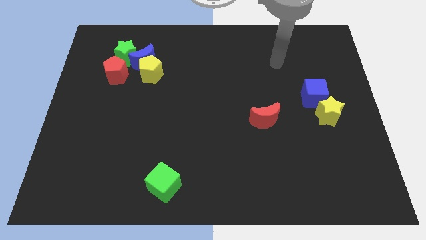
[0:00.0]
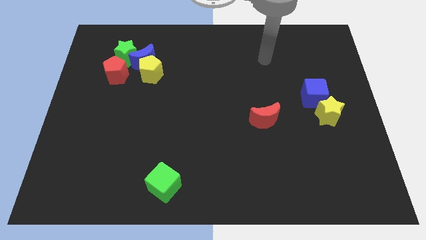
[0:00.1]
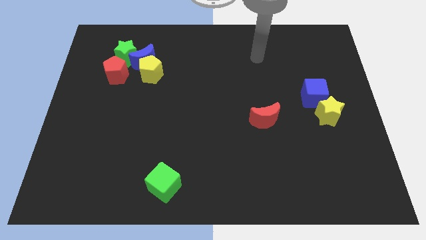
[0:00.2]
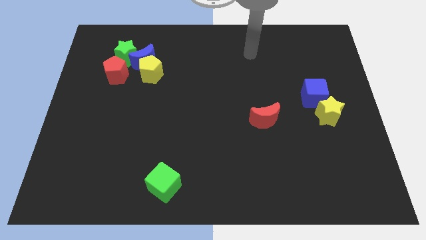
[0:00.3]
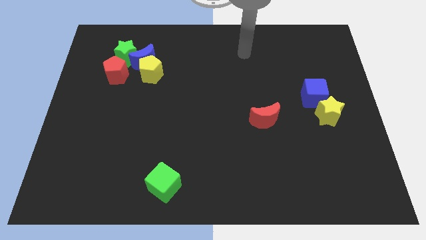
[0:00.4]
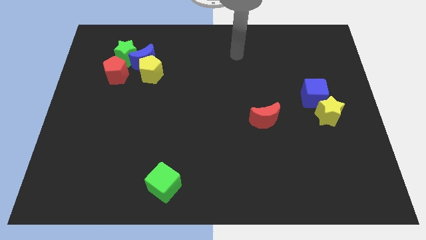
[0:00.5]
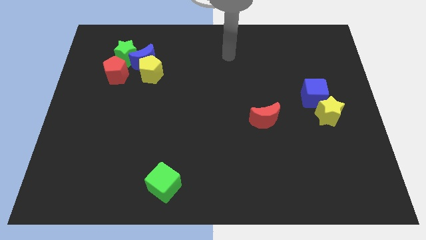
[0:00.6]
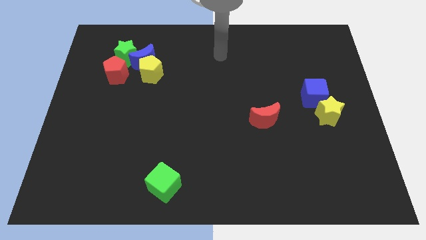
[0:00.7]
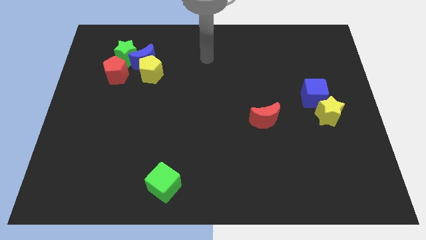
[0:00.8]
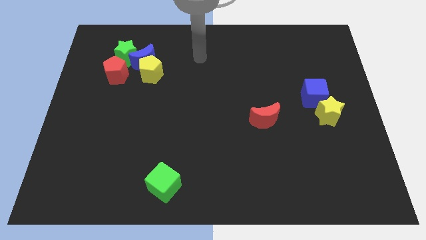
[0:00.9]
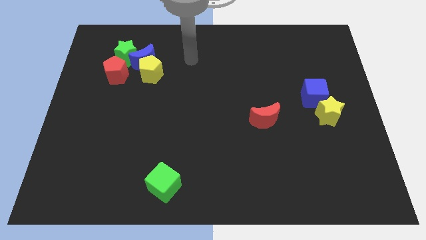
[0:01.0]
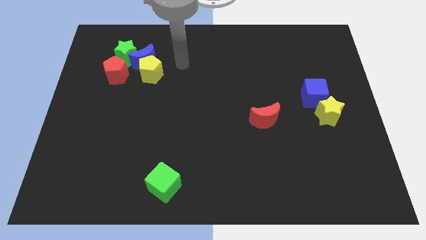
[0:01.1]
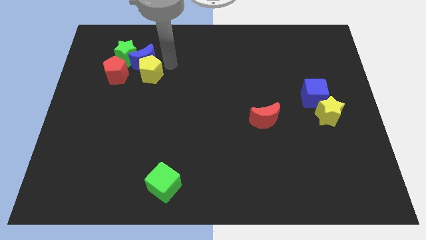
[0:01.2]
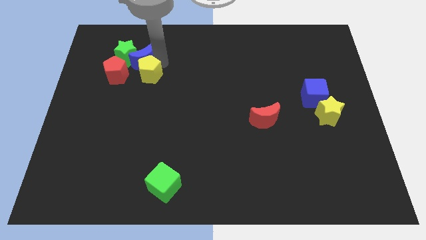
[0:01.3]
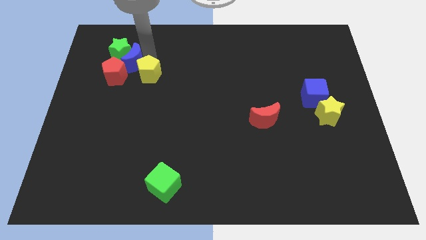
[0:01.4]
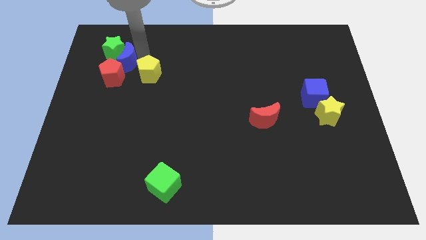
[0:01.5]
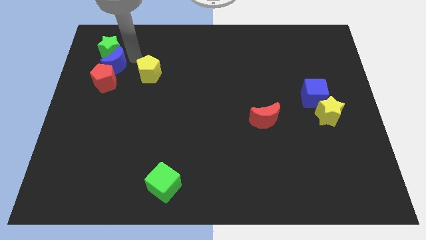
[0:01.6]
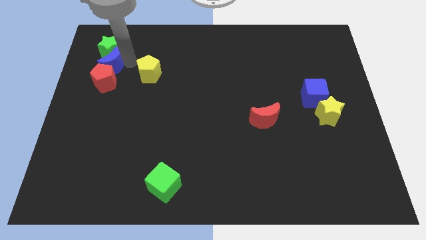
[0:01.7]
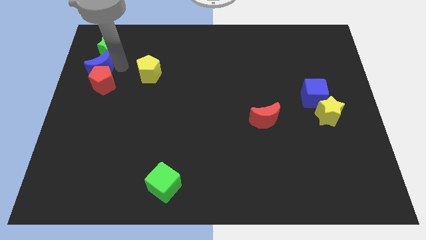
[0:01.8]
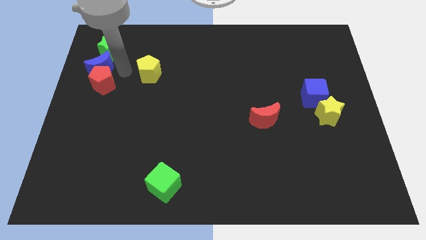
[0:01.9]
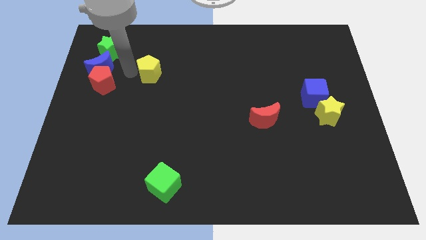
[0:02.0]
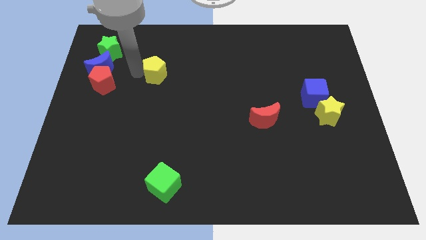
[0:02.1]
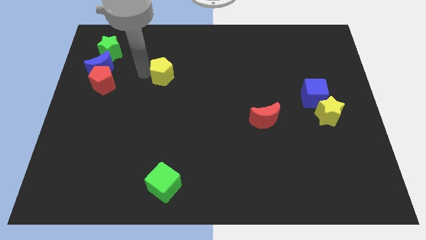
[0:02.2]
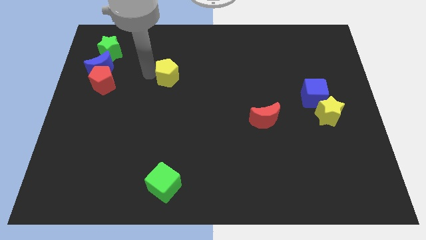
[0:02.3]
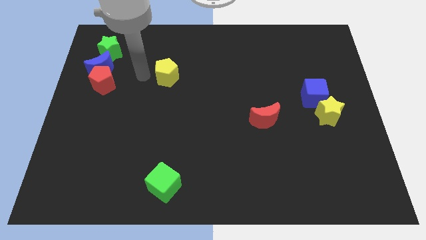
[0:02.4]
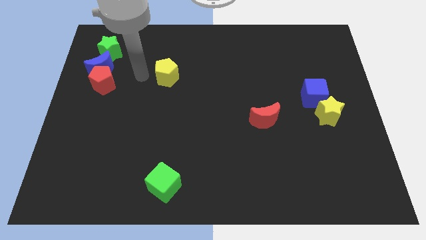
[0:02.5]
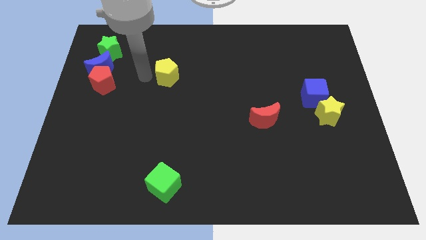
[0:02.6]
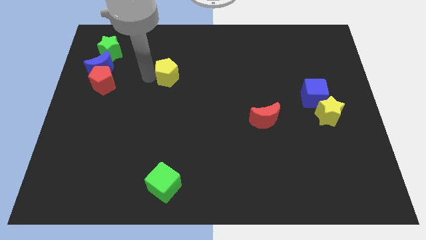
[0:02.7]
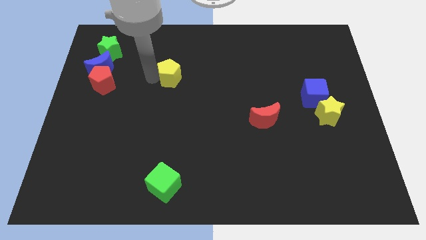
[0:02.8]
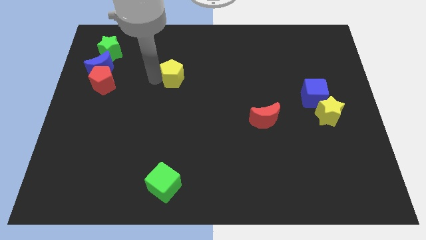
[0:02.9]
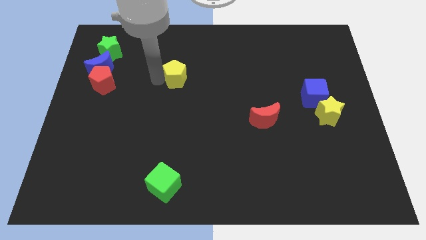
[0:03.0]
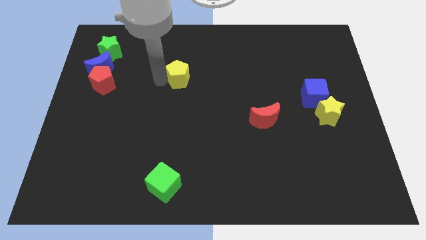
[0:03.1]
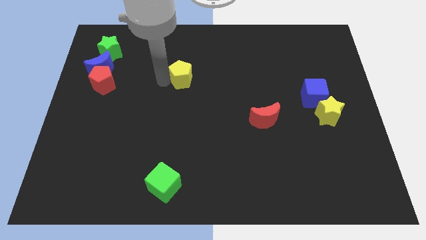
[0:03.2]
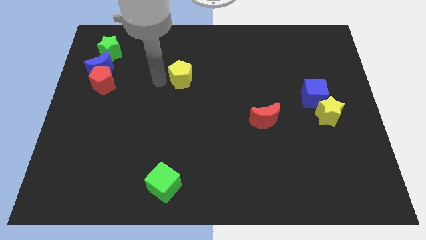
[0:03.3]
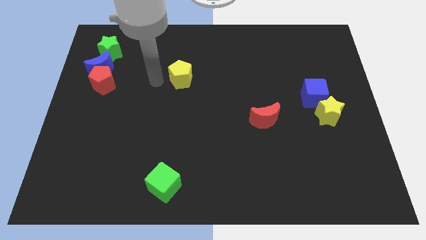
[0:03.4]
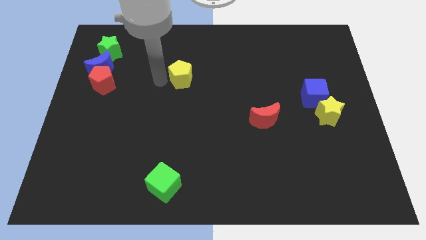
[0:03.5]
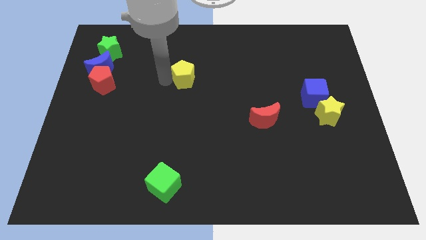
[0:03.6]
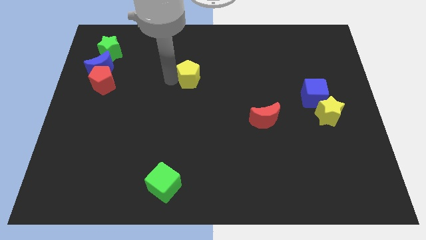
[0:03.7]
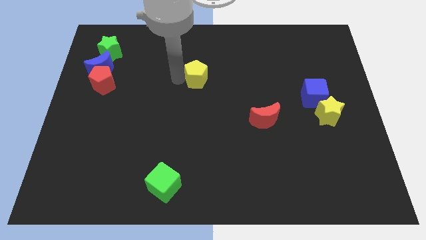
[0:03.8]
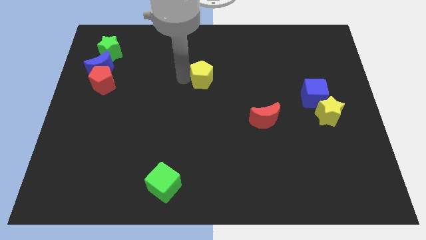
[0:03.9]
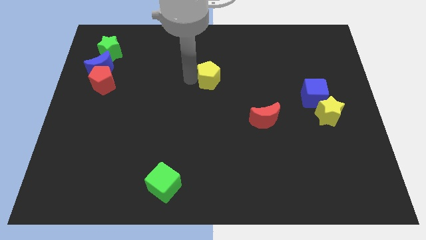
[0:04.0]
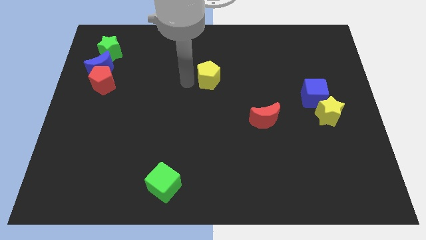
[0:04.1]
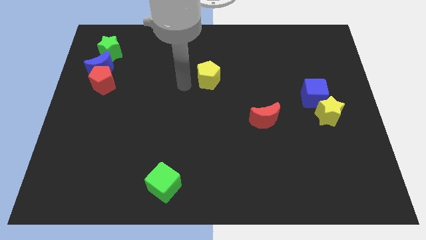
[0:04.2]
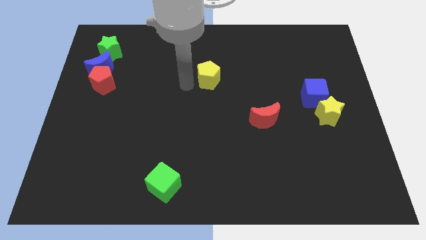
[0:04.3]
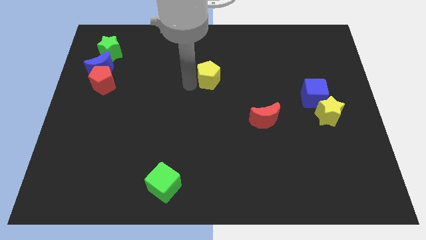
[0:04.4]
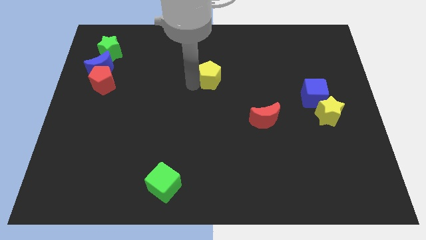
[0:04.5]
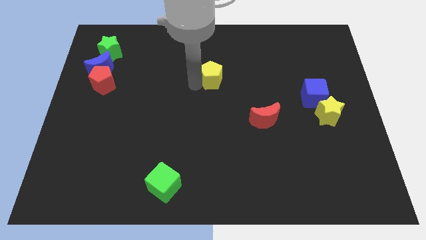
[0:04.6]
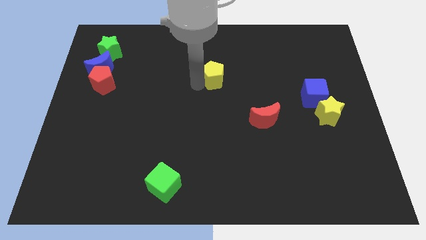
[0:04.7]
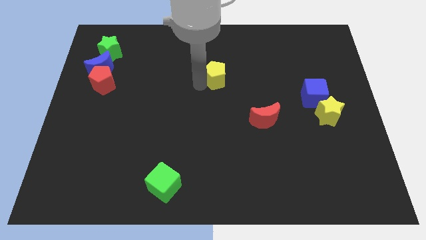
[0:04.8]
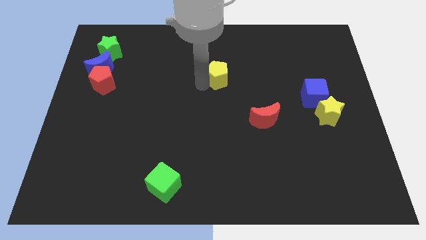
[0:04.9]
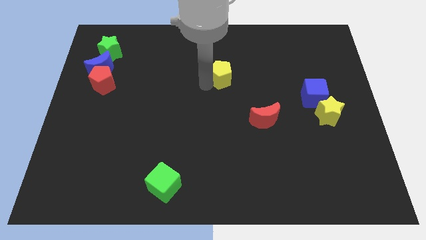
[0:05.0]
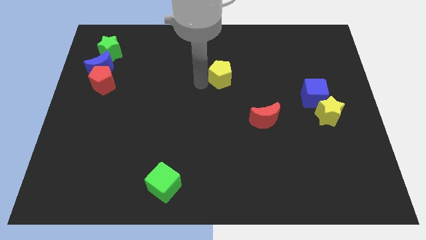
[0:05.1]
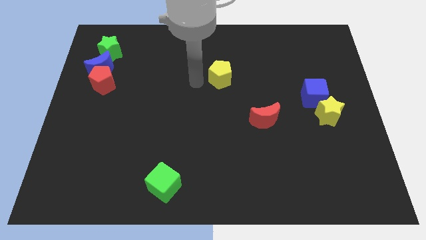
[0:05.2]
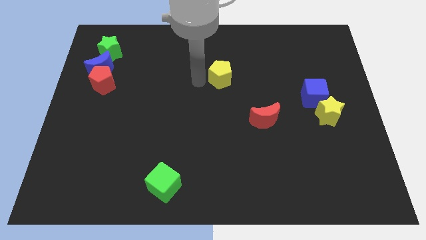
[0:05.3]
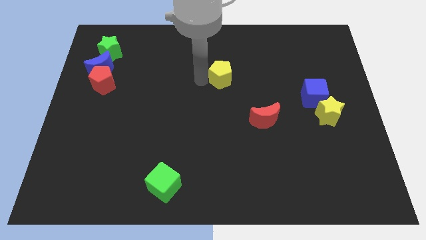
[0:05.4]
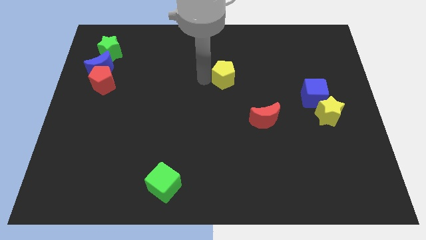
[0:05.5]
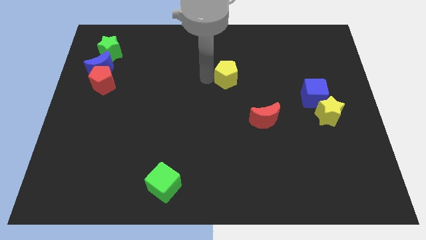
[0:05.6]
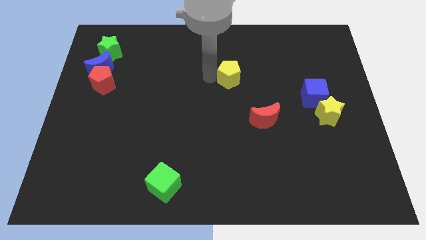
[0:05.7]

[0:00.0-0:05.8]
slide the yellow pentagon right

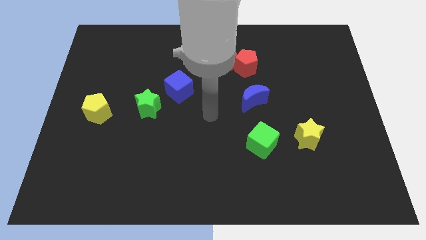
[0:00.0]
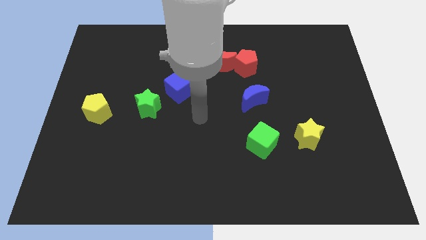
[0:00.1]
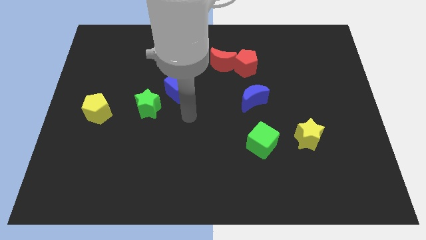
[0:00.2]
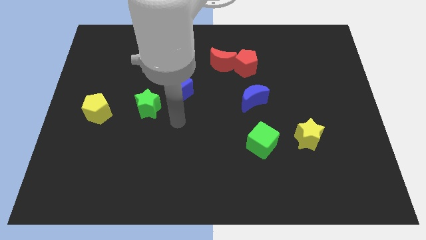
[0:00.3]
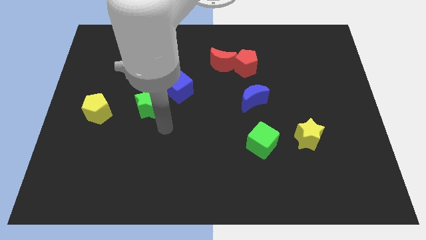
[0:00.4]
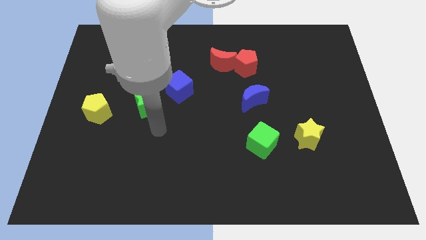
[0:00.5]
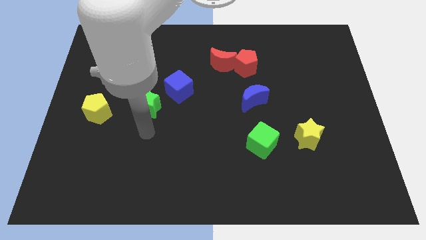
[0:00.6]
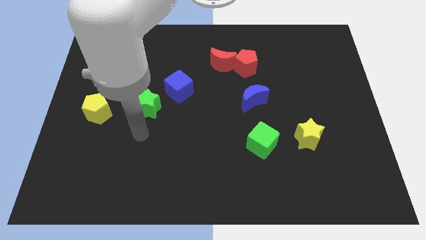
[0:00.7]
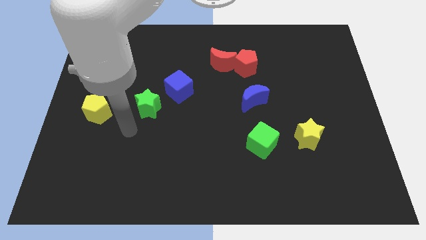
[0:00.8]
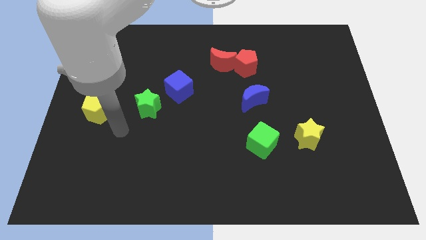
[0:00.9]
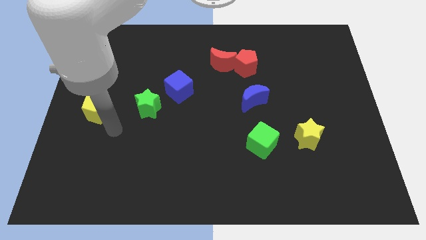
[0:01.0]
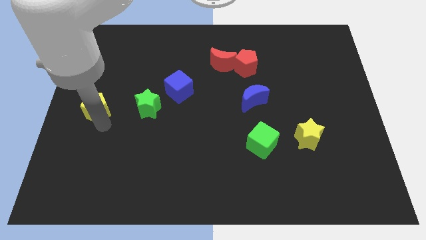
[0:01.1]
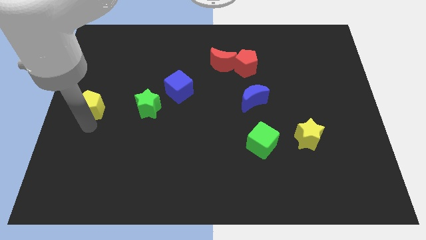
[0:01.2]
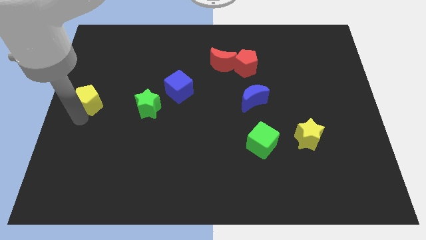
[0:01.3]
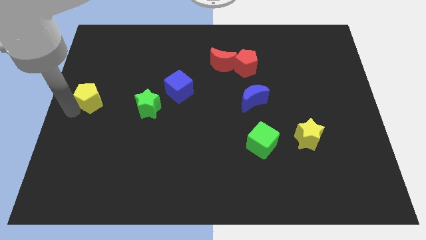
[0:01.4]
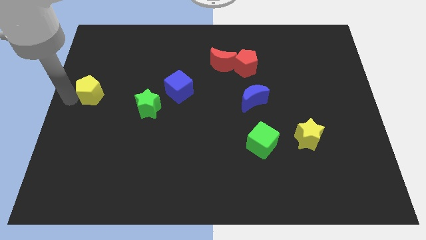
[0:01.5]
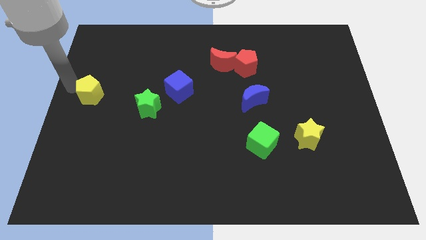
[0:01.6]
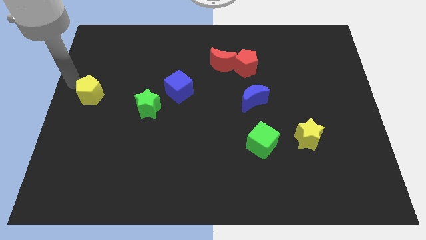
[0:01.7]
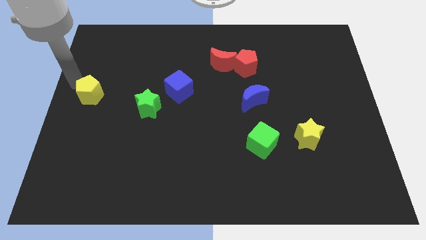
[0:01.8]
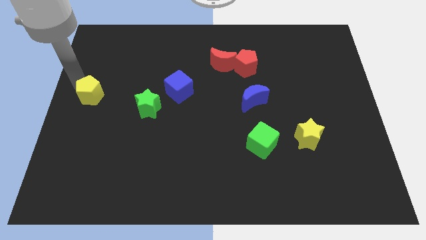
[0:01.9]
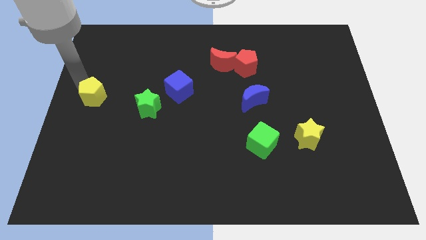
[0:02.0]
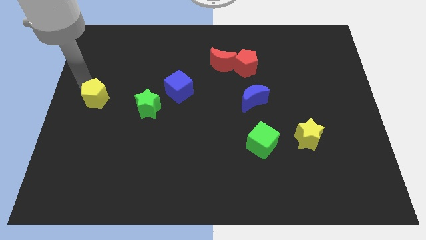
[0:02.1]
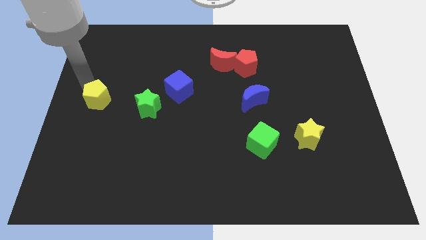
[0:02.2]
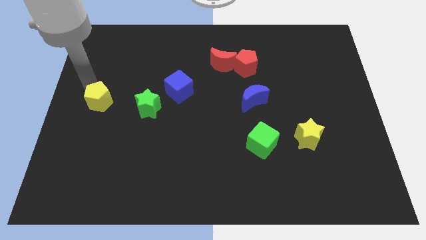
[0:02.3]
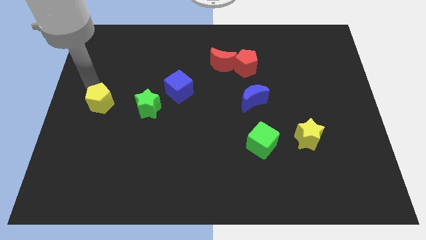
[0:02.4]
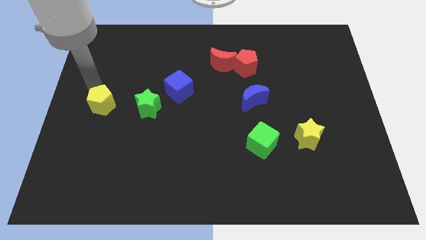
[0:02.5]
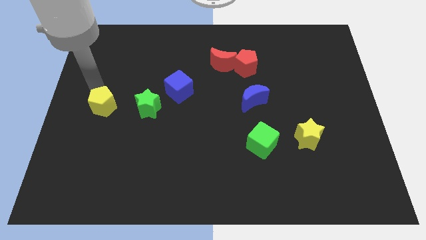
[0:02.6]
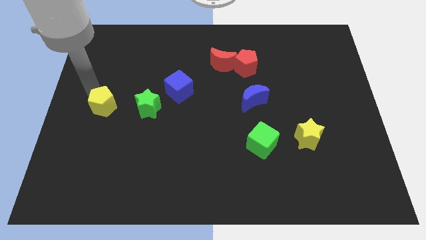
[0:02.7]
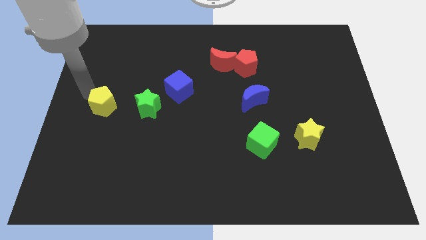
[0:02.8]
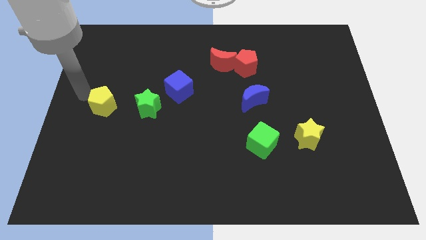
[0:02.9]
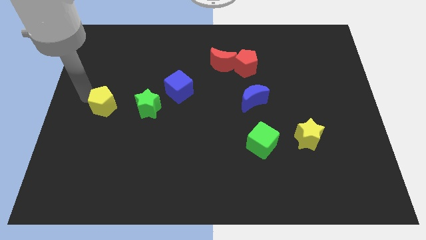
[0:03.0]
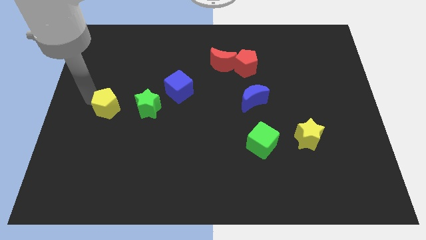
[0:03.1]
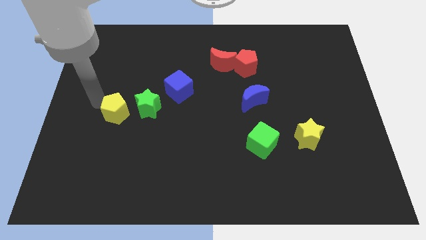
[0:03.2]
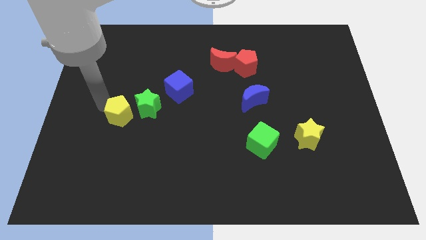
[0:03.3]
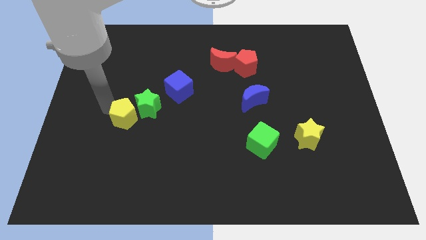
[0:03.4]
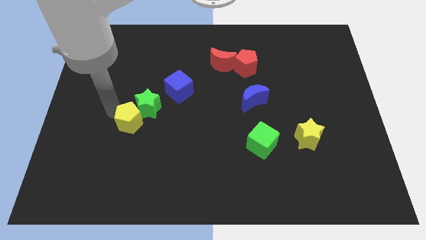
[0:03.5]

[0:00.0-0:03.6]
slightly move the yellow pentagon to the right
